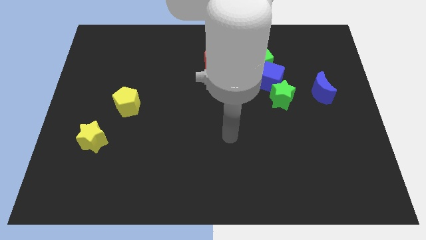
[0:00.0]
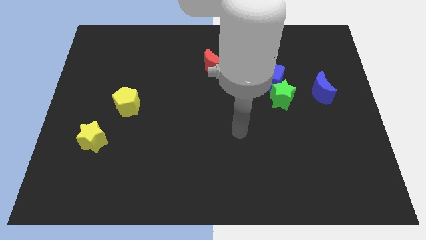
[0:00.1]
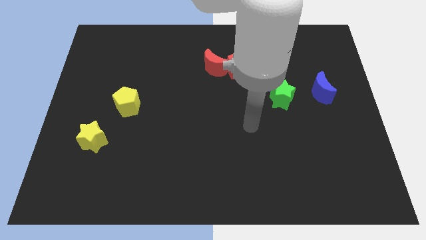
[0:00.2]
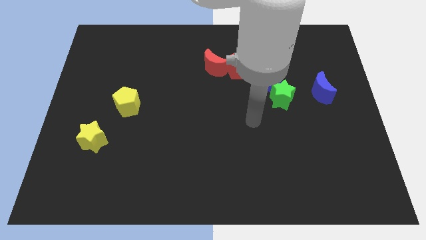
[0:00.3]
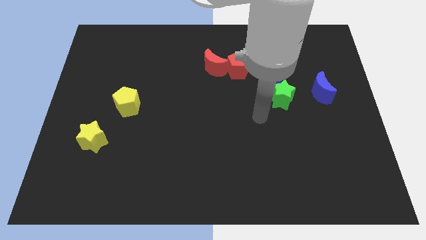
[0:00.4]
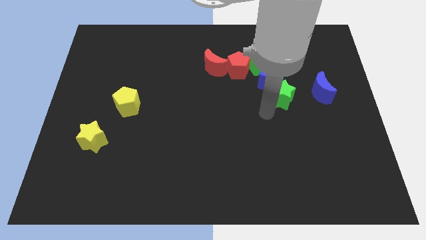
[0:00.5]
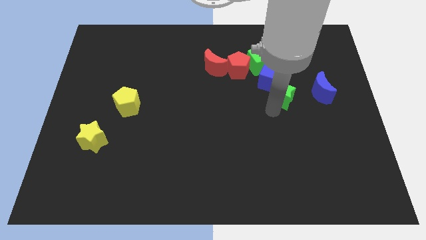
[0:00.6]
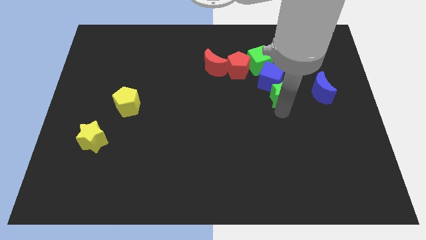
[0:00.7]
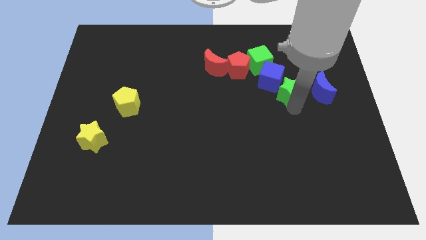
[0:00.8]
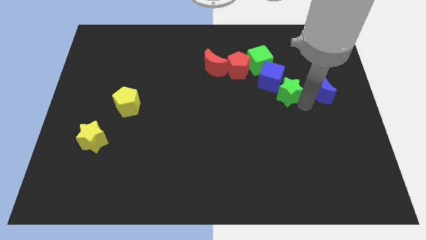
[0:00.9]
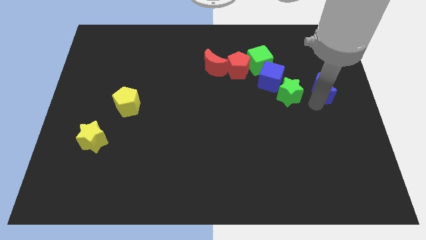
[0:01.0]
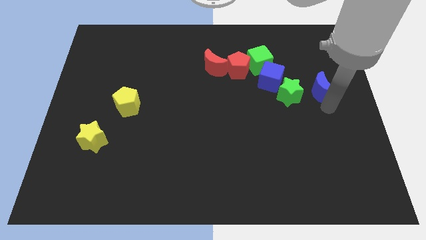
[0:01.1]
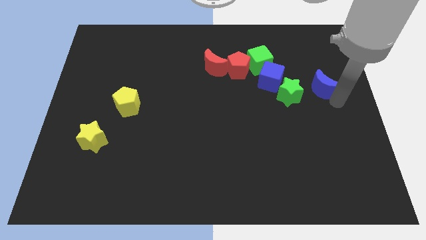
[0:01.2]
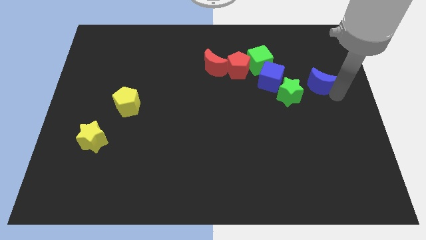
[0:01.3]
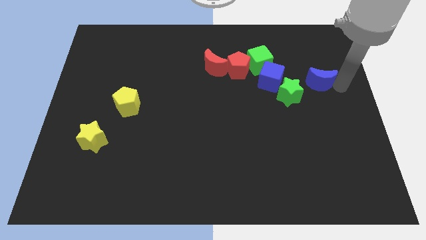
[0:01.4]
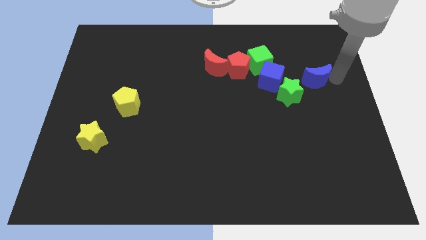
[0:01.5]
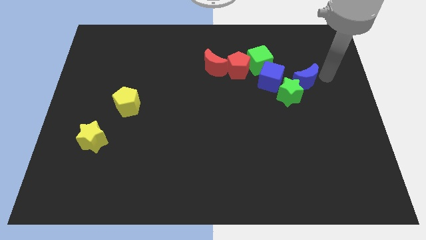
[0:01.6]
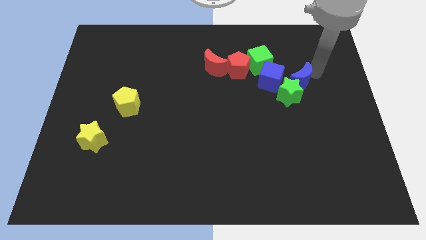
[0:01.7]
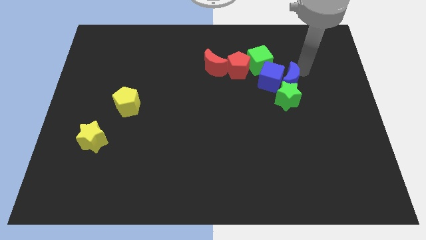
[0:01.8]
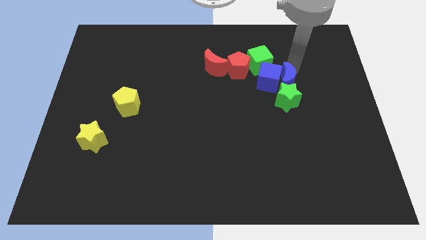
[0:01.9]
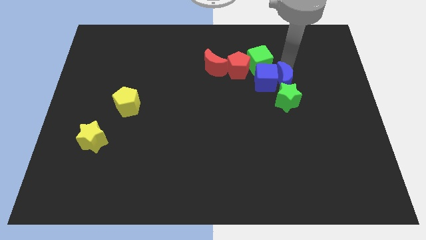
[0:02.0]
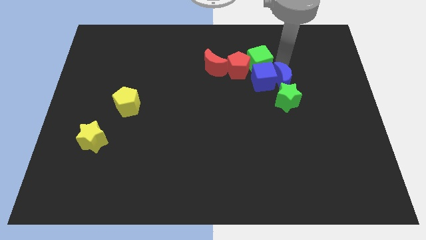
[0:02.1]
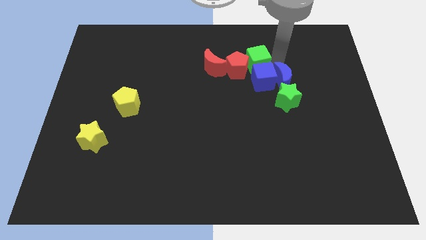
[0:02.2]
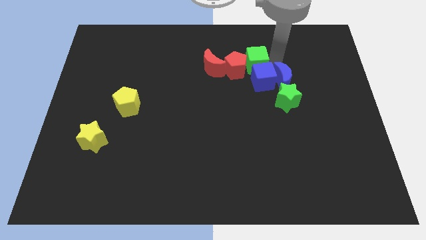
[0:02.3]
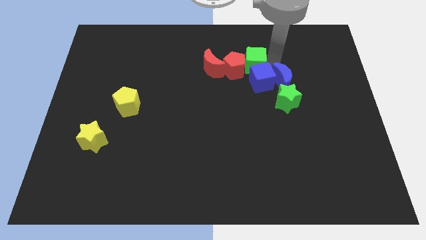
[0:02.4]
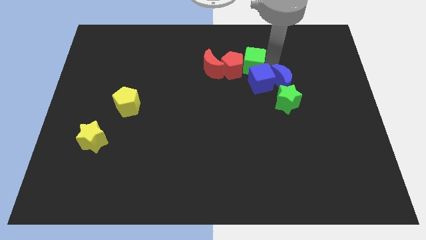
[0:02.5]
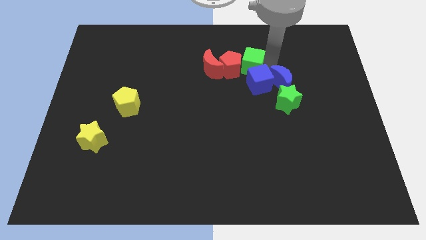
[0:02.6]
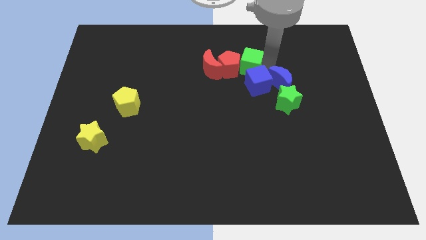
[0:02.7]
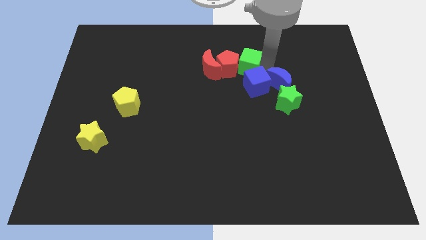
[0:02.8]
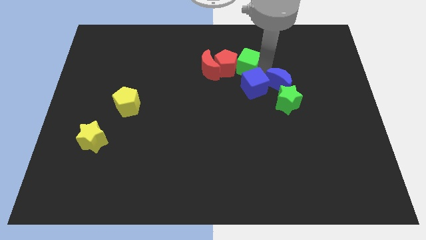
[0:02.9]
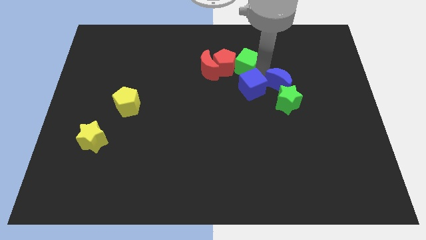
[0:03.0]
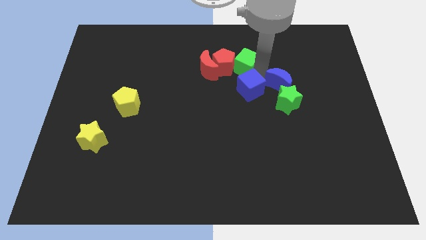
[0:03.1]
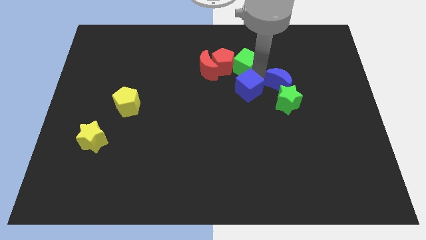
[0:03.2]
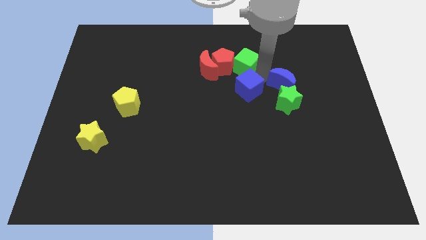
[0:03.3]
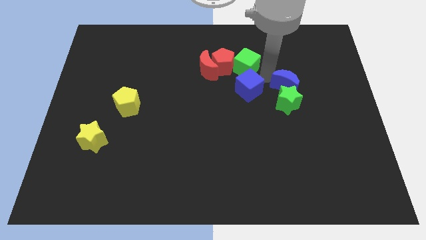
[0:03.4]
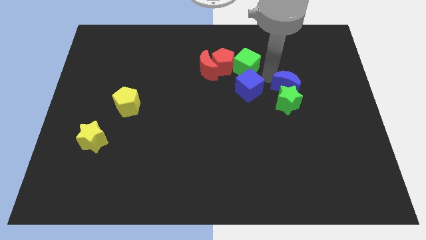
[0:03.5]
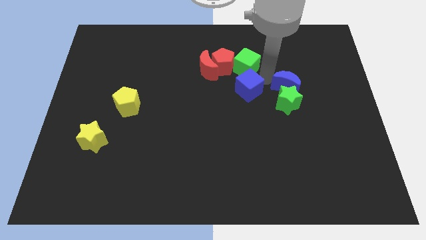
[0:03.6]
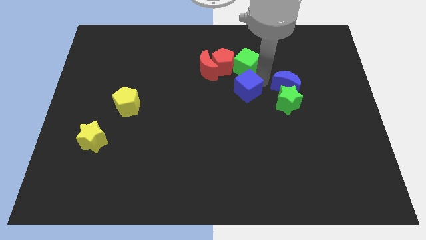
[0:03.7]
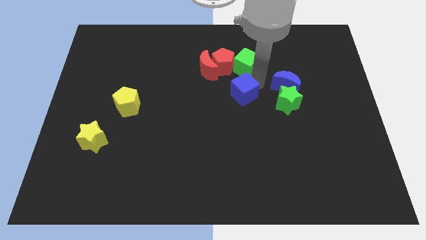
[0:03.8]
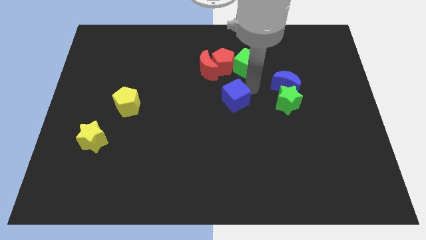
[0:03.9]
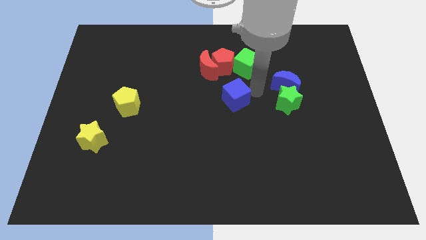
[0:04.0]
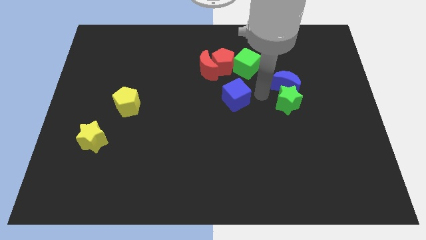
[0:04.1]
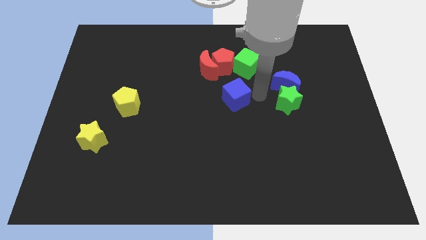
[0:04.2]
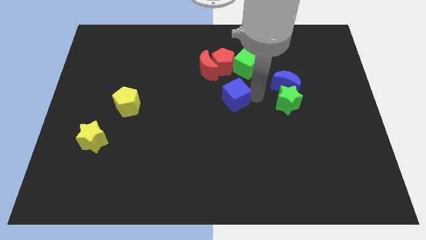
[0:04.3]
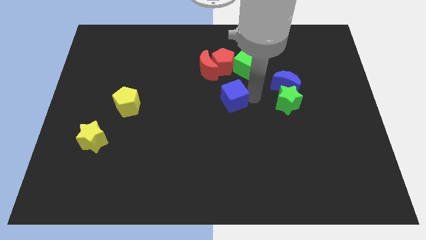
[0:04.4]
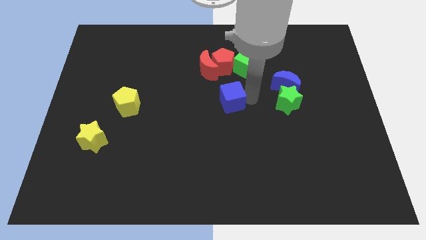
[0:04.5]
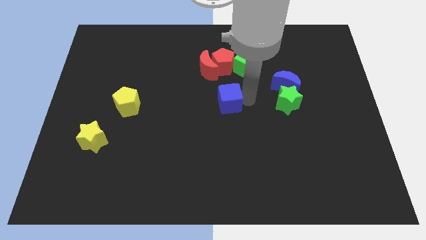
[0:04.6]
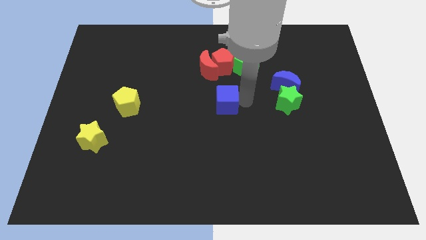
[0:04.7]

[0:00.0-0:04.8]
push the blue cube to the bottom of the red moon

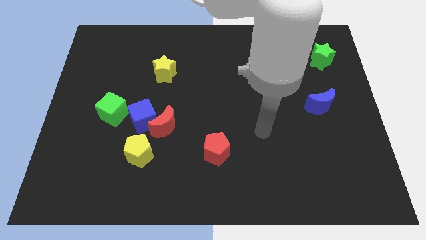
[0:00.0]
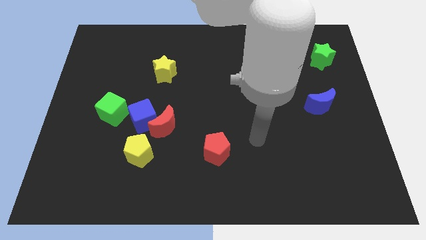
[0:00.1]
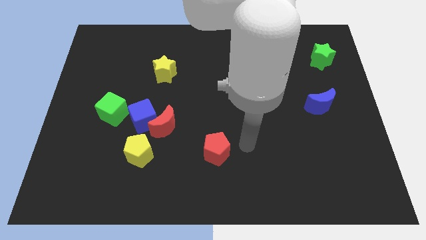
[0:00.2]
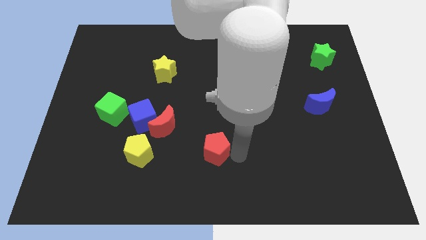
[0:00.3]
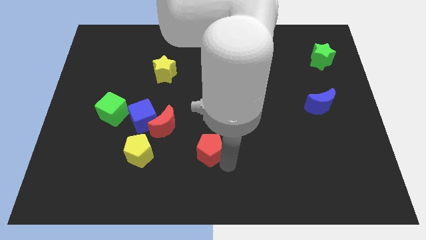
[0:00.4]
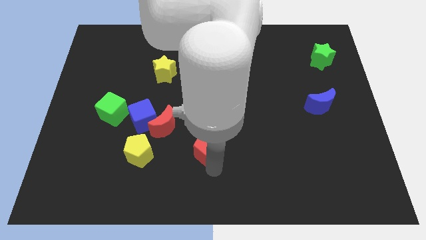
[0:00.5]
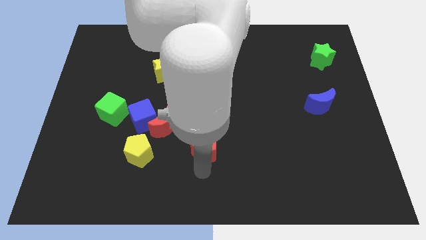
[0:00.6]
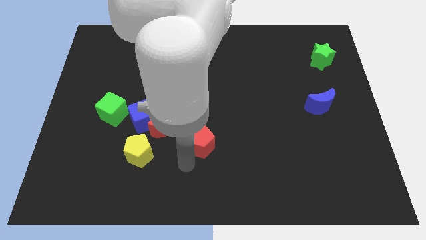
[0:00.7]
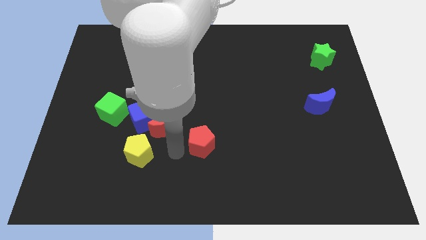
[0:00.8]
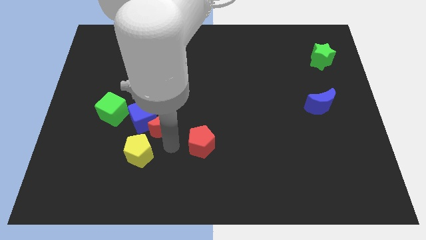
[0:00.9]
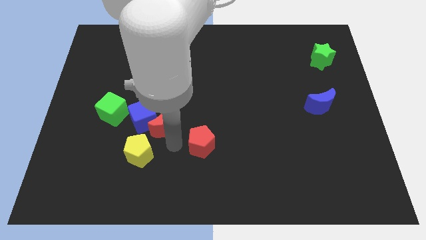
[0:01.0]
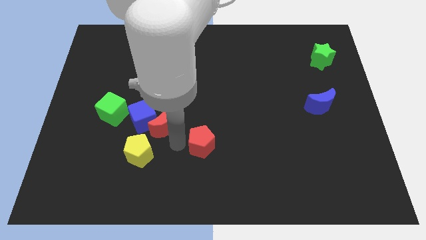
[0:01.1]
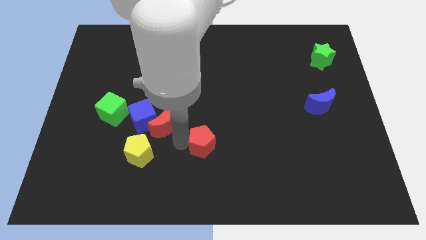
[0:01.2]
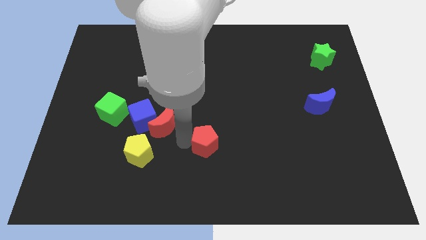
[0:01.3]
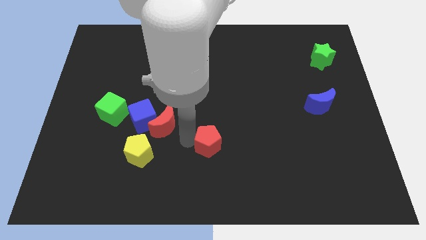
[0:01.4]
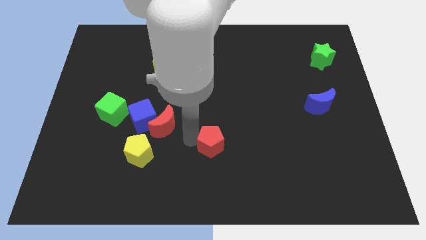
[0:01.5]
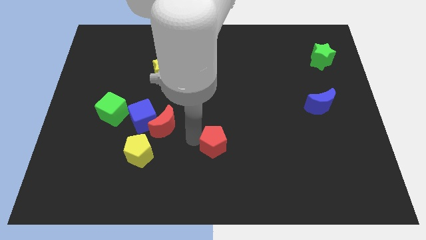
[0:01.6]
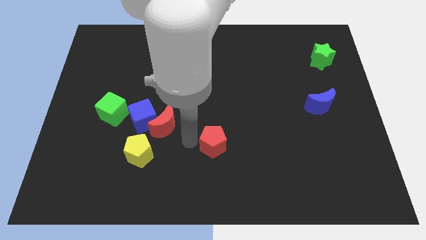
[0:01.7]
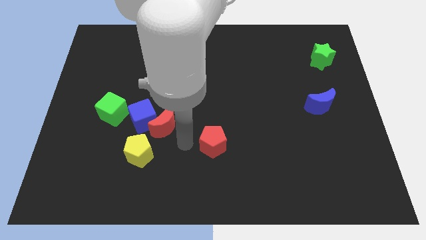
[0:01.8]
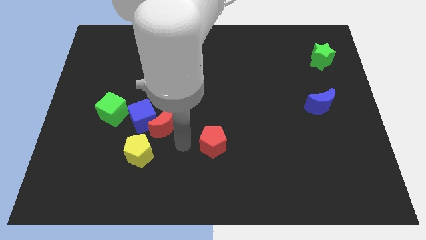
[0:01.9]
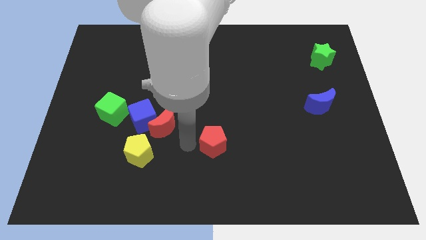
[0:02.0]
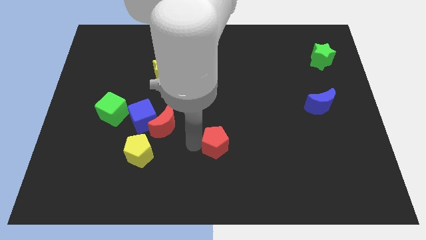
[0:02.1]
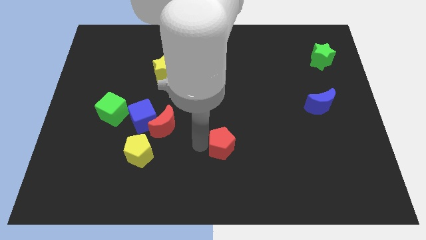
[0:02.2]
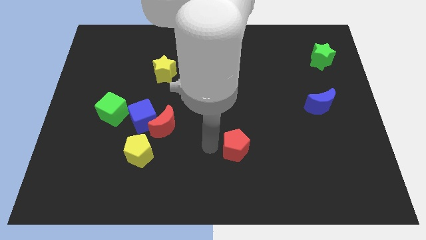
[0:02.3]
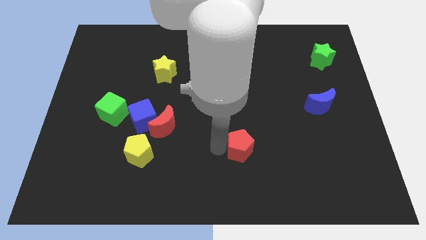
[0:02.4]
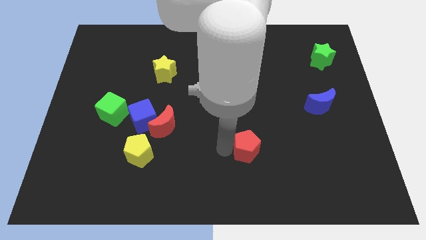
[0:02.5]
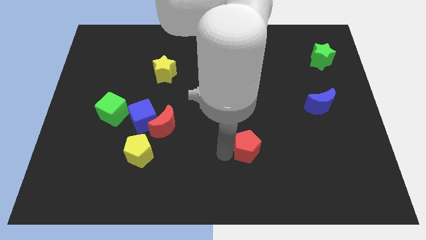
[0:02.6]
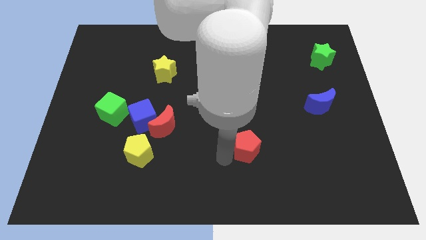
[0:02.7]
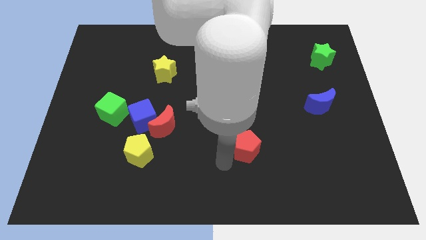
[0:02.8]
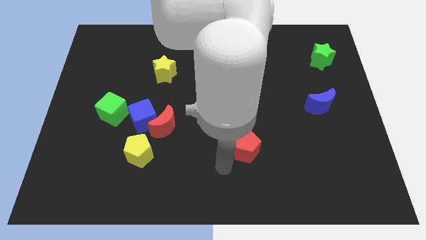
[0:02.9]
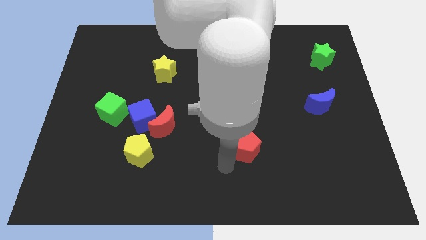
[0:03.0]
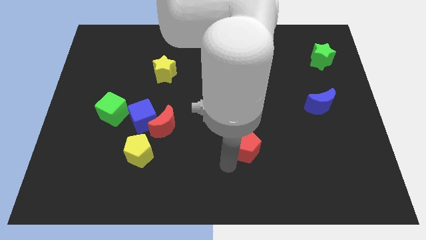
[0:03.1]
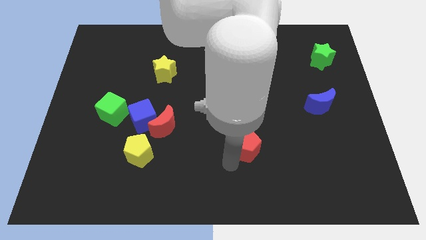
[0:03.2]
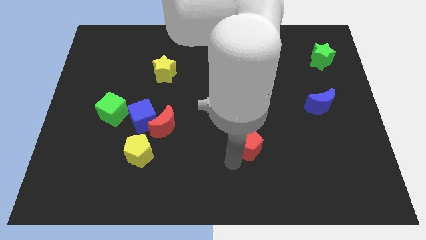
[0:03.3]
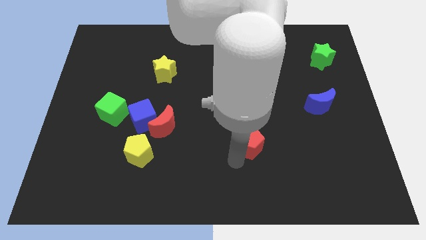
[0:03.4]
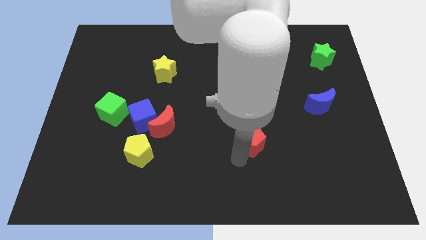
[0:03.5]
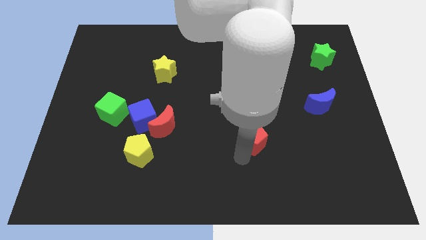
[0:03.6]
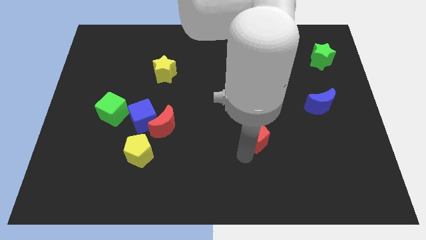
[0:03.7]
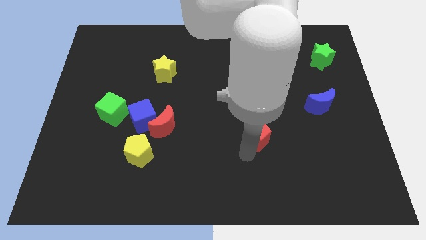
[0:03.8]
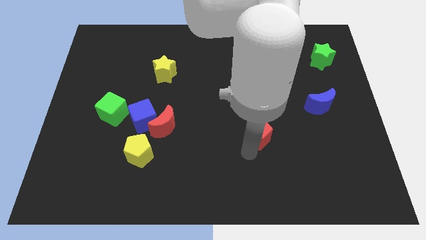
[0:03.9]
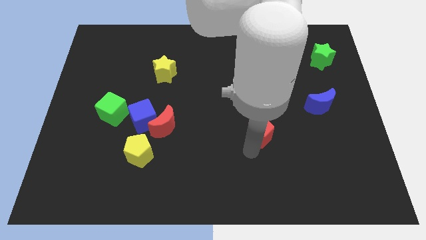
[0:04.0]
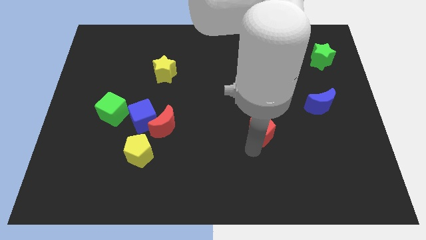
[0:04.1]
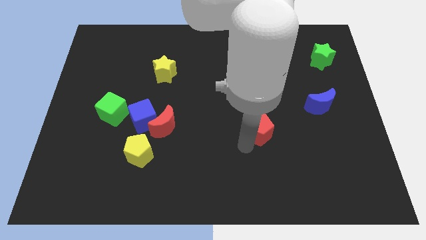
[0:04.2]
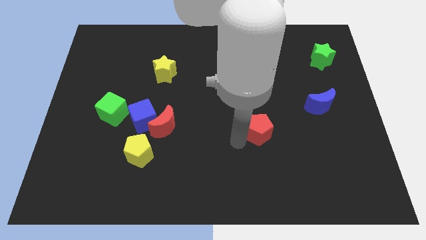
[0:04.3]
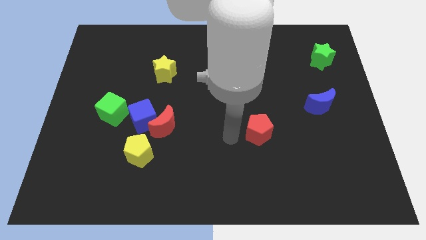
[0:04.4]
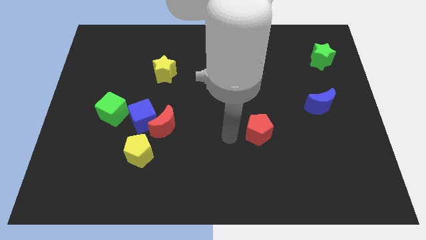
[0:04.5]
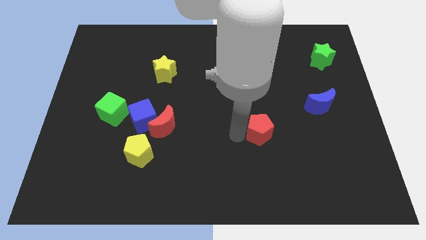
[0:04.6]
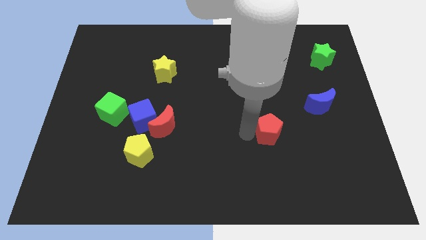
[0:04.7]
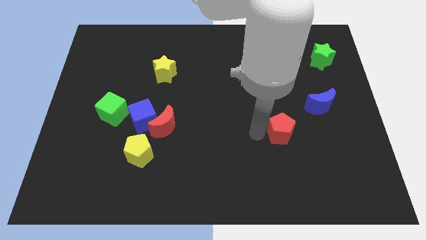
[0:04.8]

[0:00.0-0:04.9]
move the red pentagon to the bottom left of the blue moon
